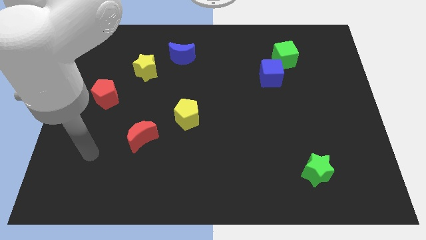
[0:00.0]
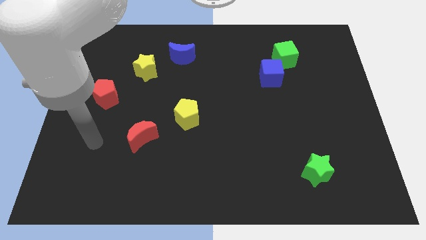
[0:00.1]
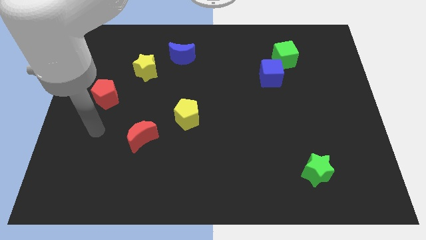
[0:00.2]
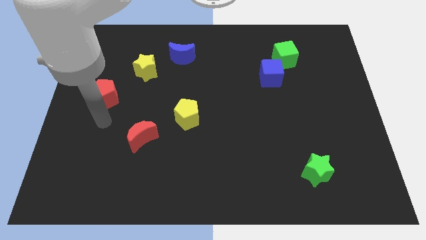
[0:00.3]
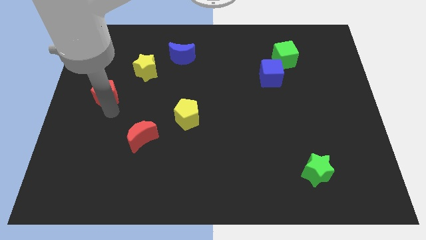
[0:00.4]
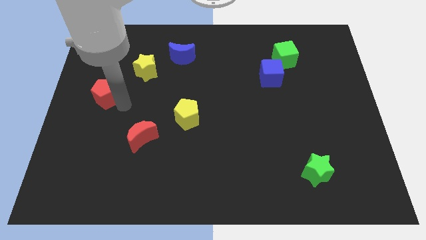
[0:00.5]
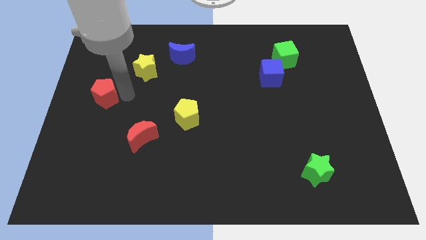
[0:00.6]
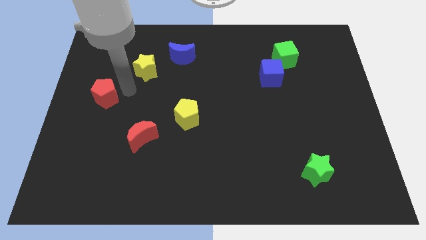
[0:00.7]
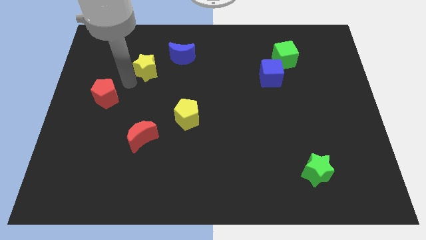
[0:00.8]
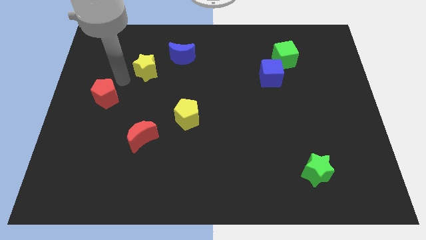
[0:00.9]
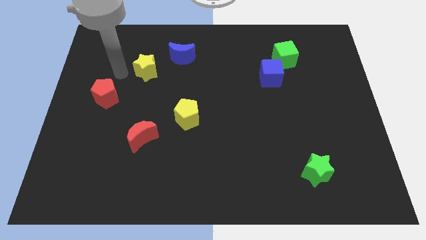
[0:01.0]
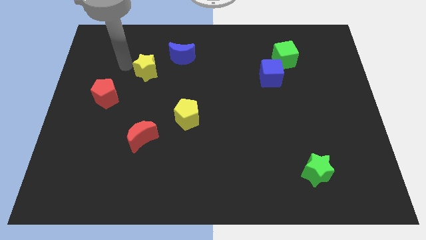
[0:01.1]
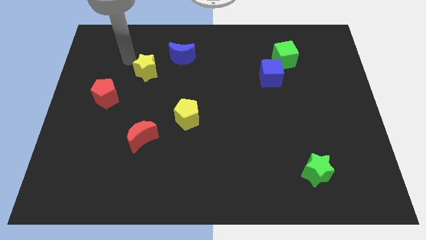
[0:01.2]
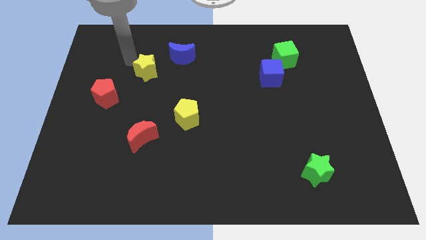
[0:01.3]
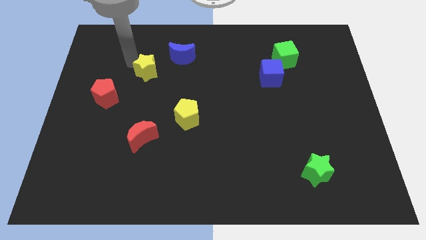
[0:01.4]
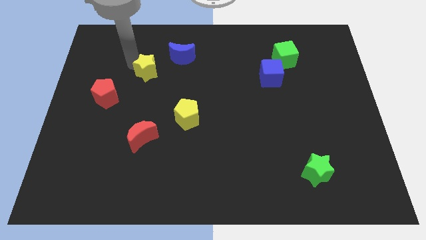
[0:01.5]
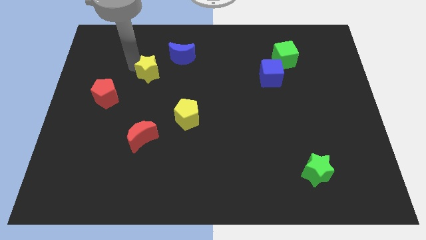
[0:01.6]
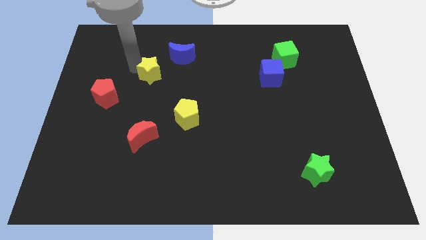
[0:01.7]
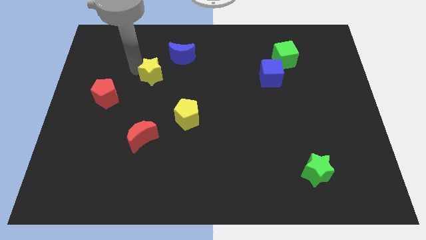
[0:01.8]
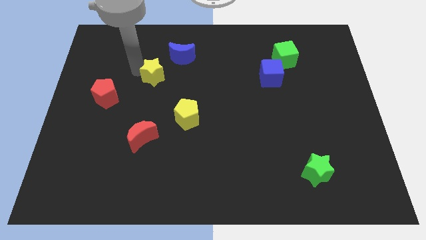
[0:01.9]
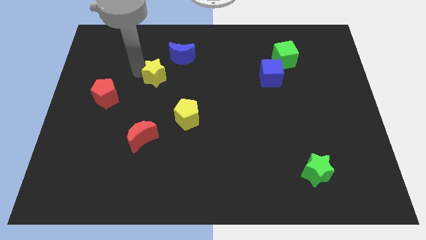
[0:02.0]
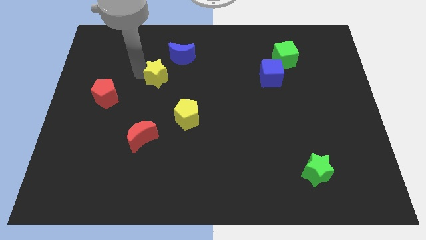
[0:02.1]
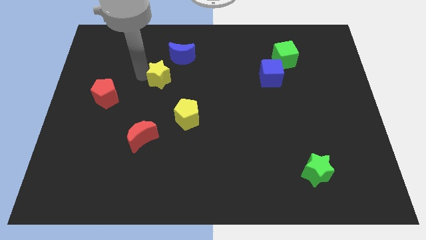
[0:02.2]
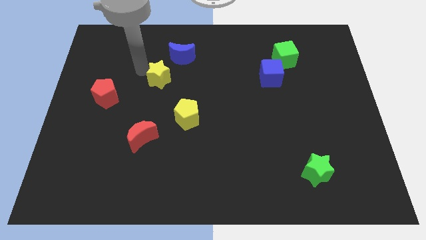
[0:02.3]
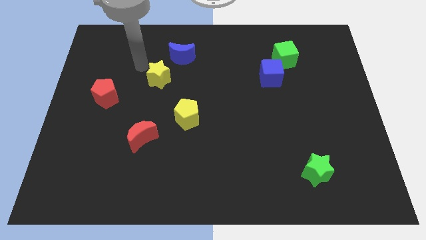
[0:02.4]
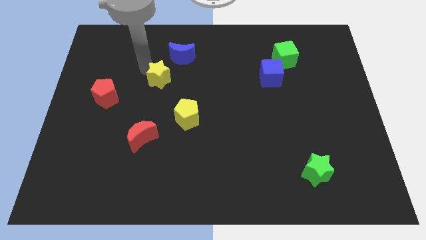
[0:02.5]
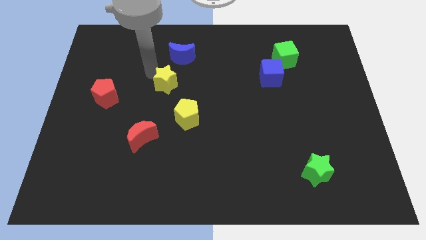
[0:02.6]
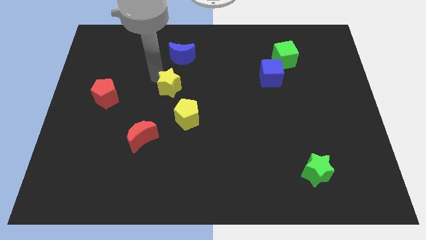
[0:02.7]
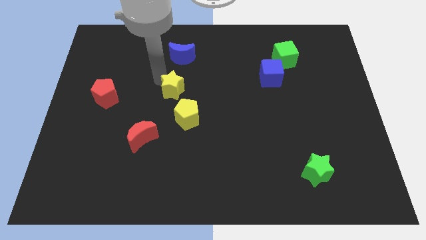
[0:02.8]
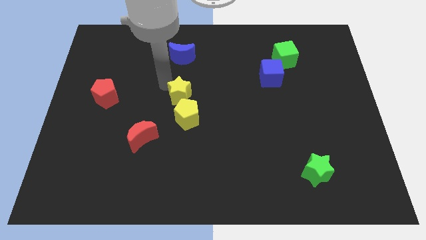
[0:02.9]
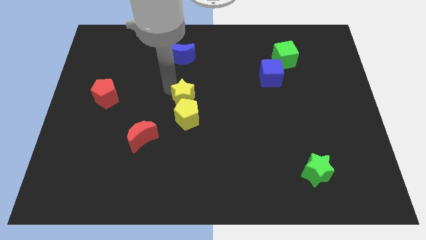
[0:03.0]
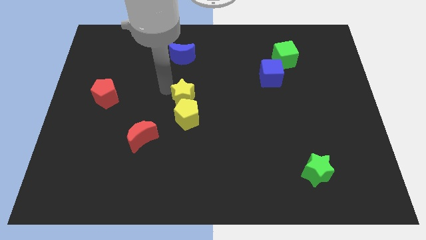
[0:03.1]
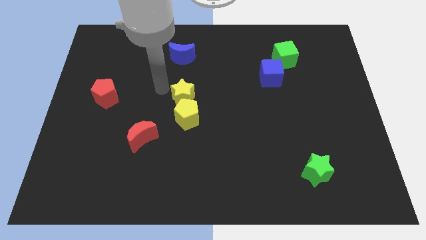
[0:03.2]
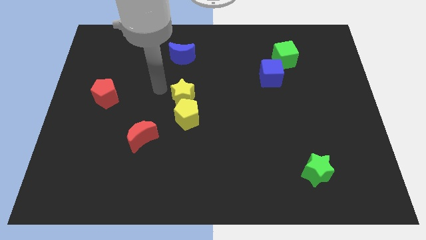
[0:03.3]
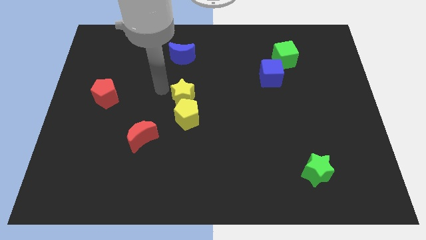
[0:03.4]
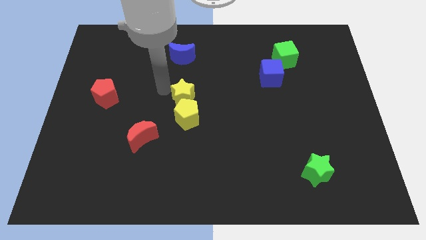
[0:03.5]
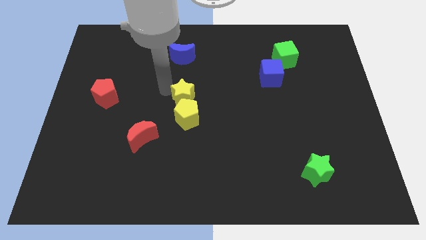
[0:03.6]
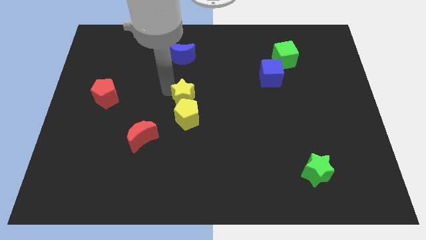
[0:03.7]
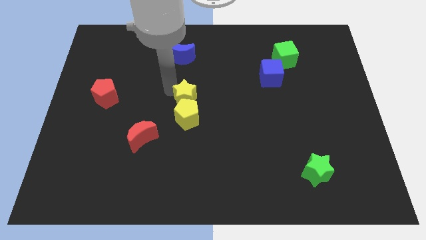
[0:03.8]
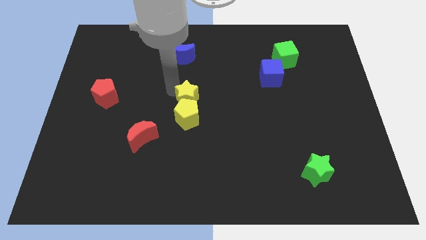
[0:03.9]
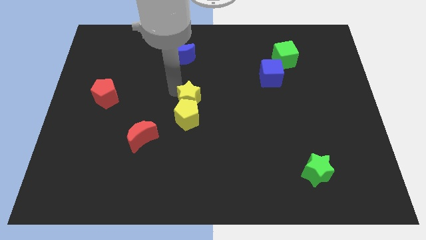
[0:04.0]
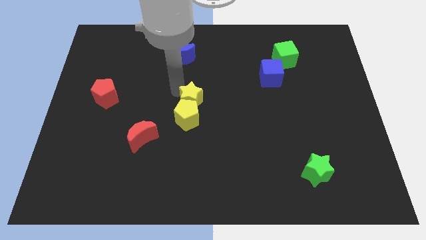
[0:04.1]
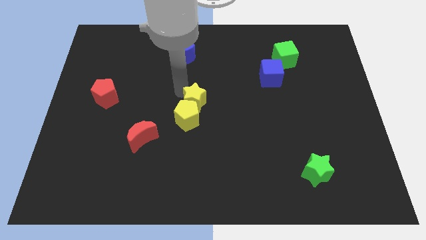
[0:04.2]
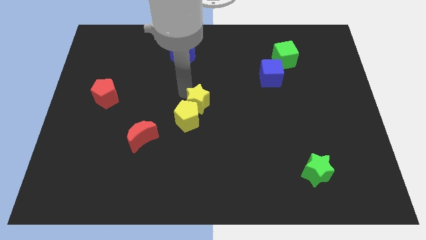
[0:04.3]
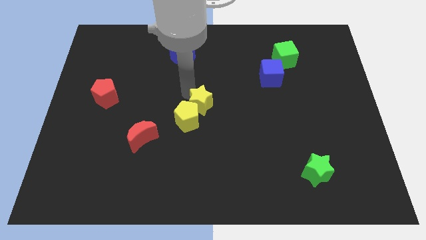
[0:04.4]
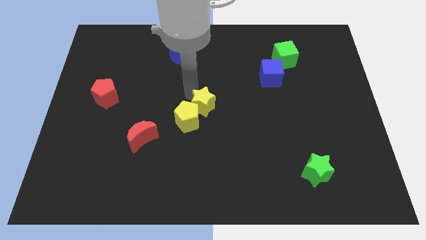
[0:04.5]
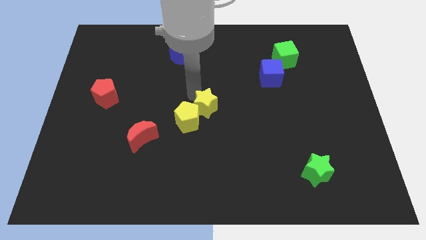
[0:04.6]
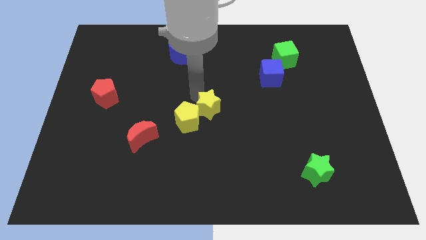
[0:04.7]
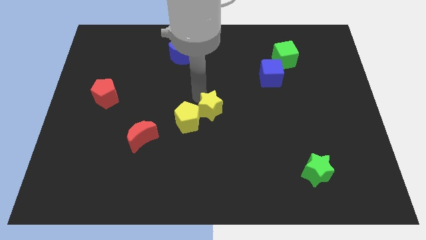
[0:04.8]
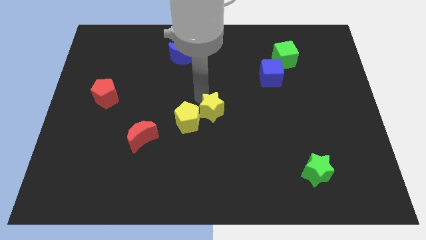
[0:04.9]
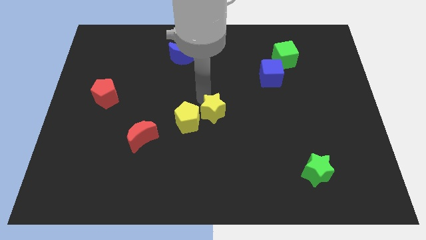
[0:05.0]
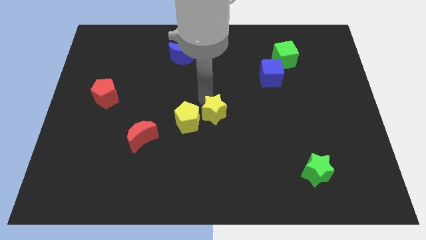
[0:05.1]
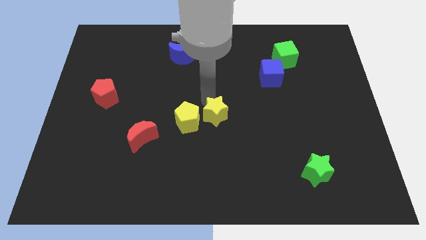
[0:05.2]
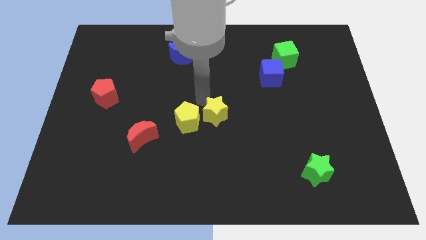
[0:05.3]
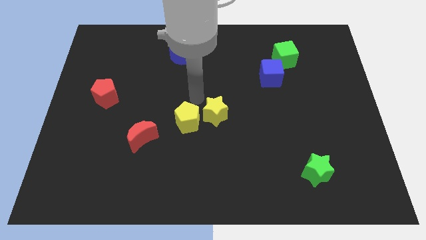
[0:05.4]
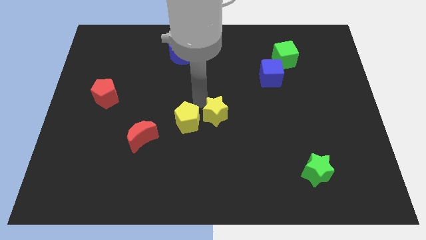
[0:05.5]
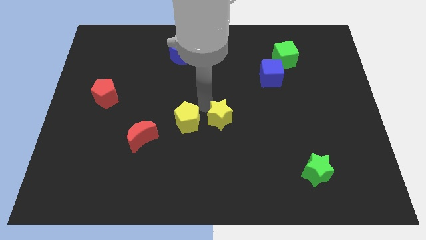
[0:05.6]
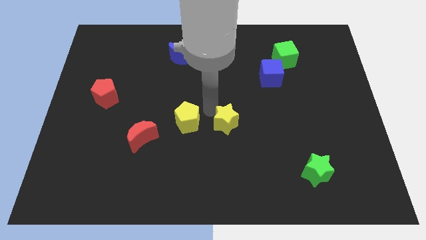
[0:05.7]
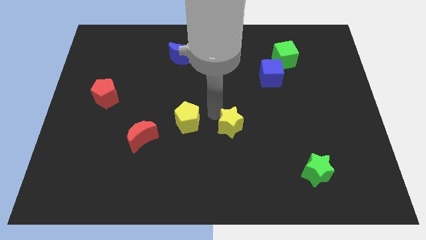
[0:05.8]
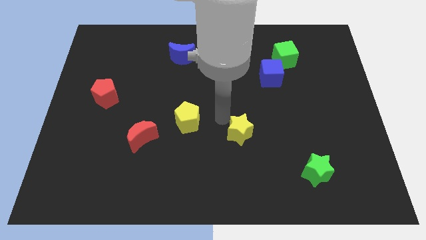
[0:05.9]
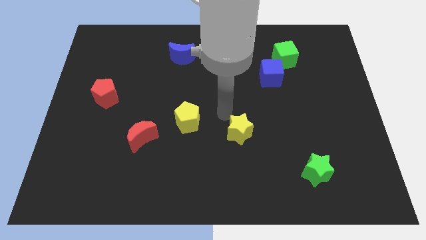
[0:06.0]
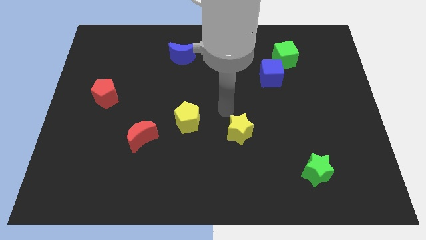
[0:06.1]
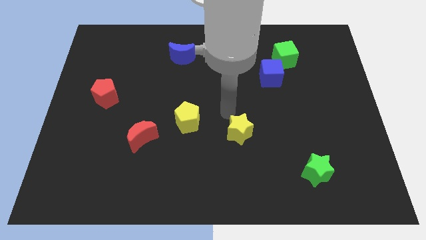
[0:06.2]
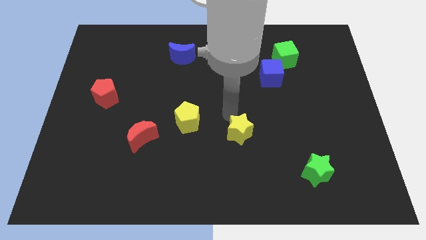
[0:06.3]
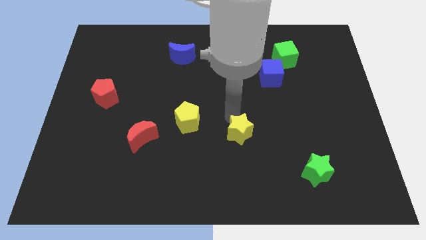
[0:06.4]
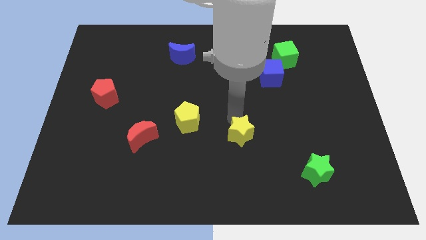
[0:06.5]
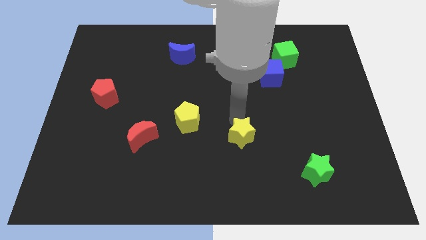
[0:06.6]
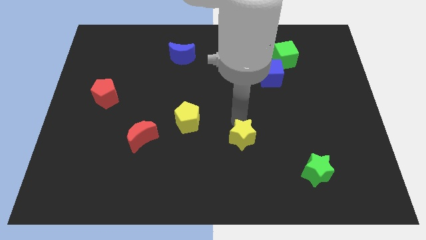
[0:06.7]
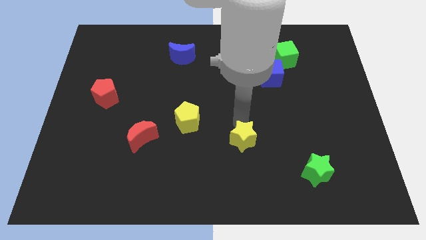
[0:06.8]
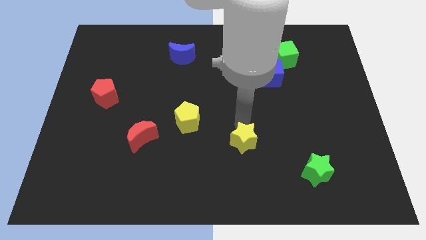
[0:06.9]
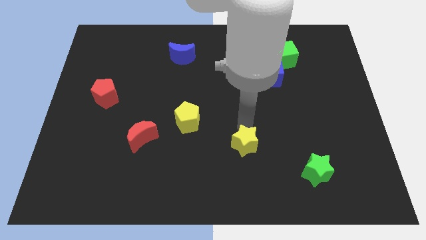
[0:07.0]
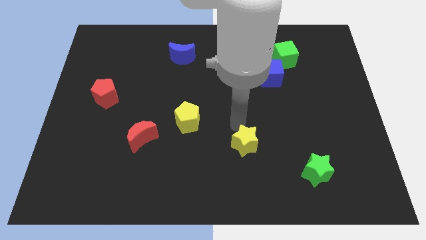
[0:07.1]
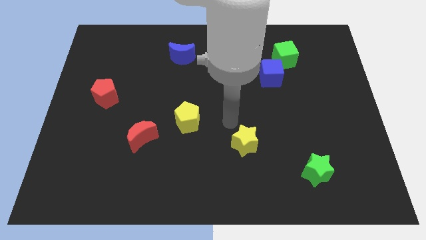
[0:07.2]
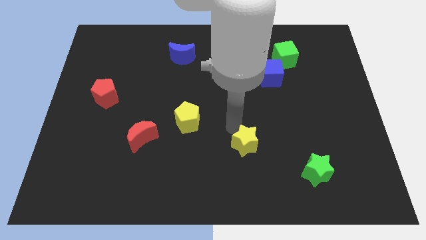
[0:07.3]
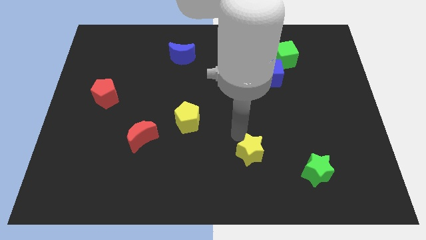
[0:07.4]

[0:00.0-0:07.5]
put the yellow star left of the green star
